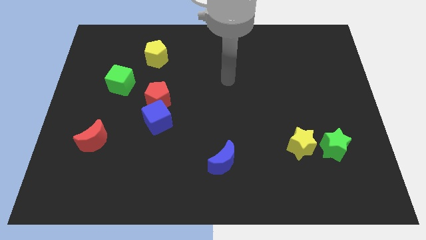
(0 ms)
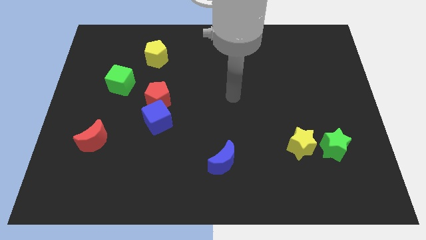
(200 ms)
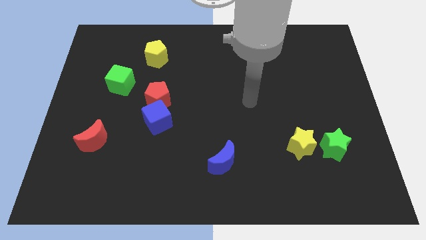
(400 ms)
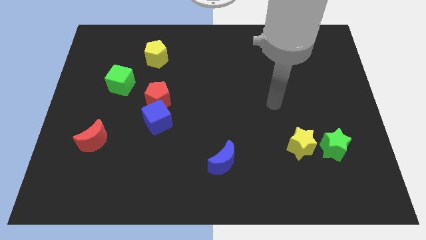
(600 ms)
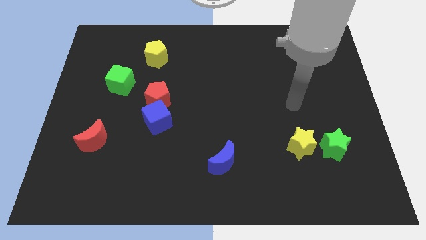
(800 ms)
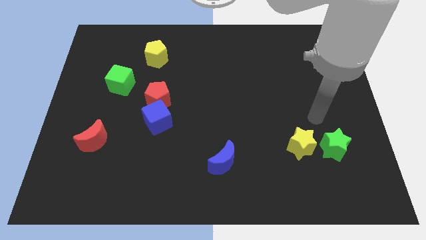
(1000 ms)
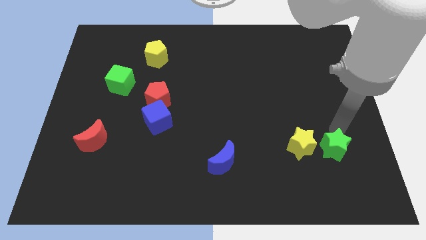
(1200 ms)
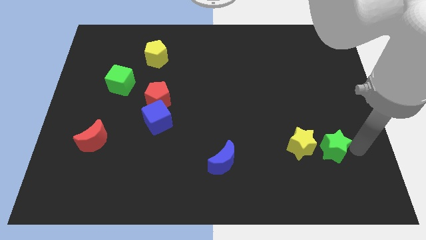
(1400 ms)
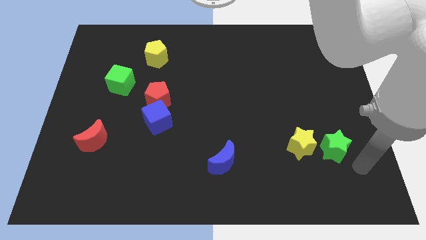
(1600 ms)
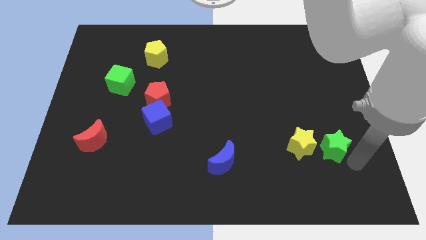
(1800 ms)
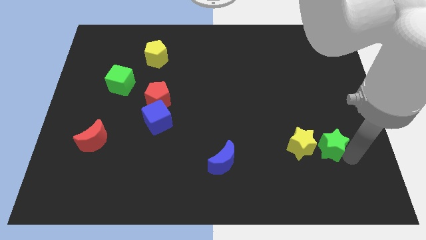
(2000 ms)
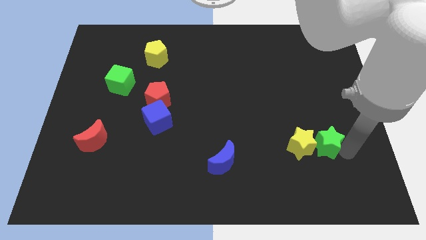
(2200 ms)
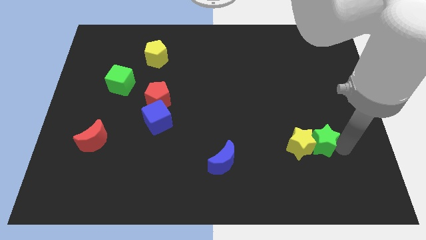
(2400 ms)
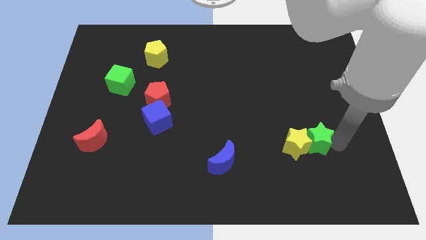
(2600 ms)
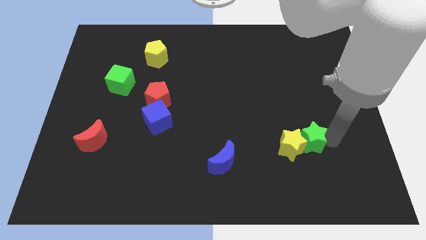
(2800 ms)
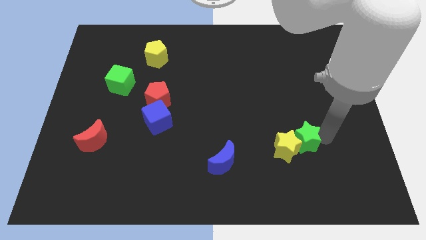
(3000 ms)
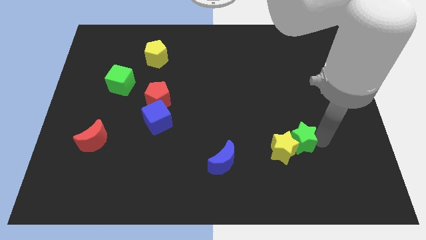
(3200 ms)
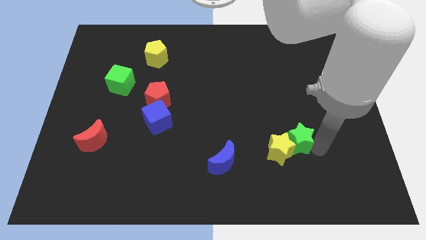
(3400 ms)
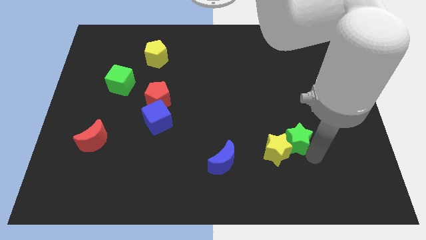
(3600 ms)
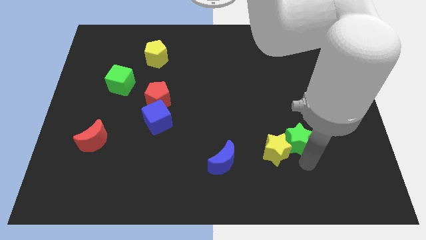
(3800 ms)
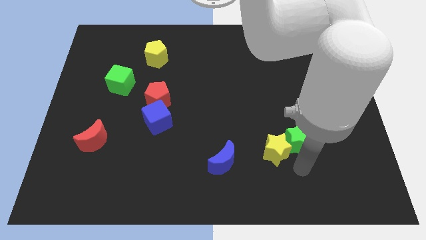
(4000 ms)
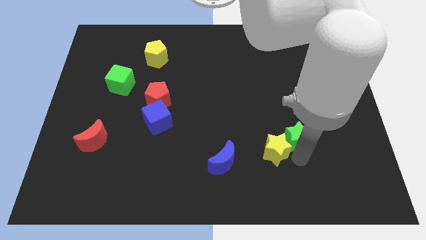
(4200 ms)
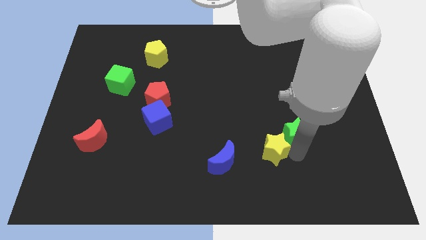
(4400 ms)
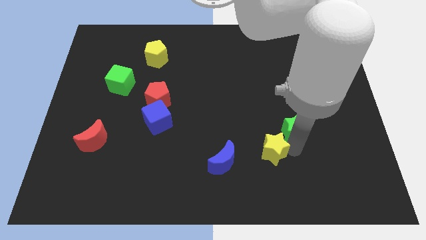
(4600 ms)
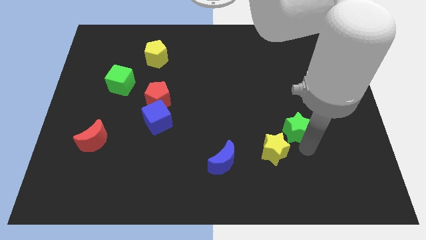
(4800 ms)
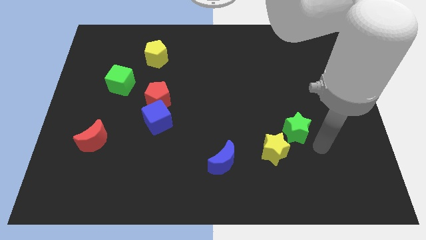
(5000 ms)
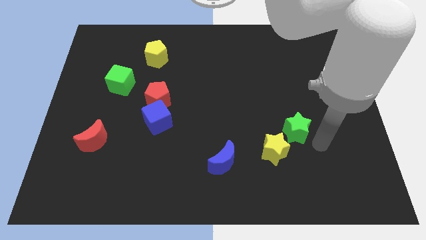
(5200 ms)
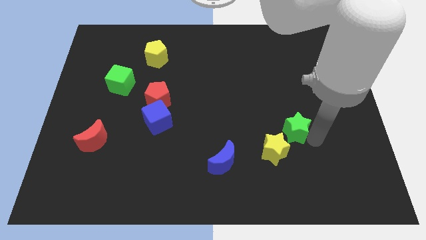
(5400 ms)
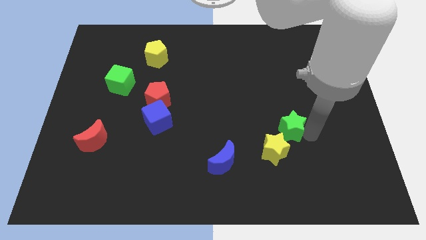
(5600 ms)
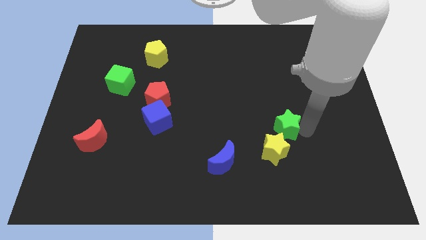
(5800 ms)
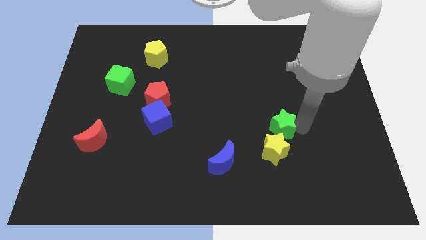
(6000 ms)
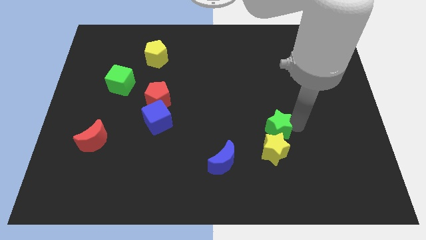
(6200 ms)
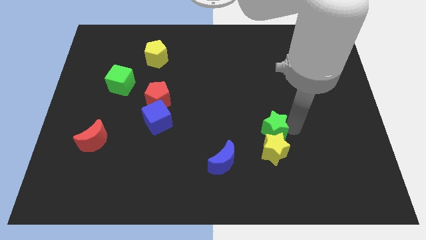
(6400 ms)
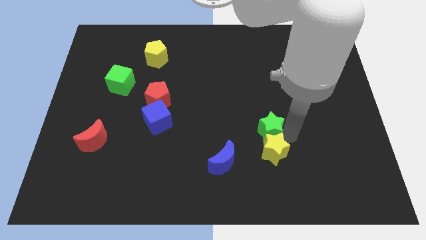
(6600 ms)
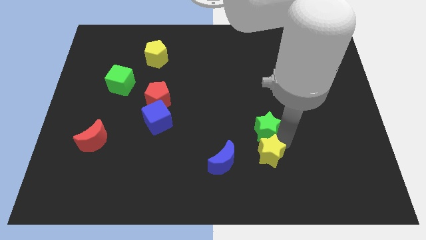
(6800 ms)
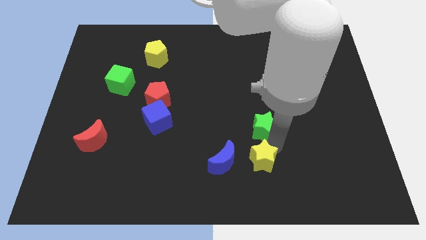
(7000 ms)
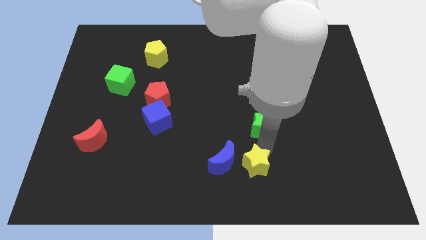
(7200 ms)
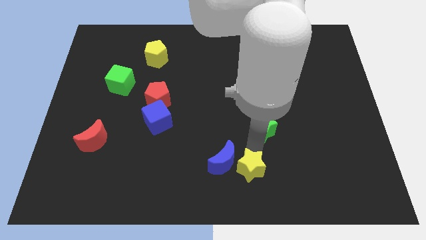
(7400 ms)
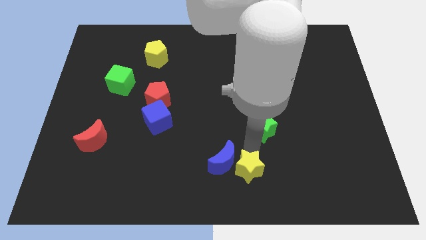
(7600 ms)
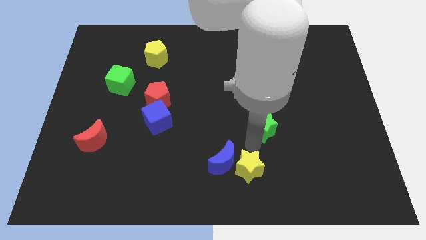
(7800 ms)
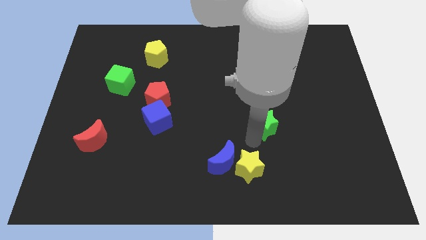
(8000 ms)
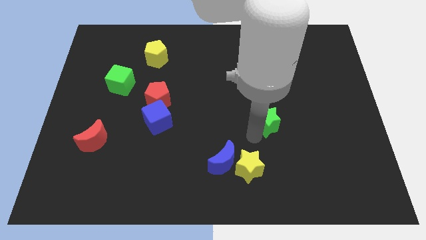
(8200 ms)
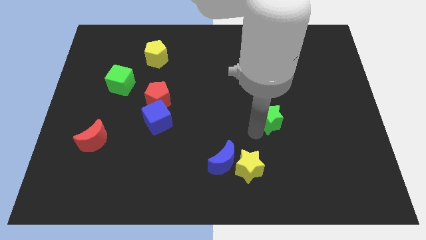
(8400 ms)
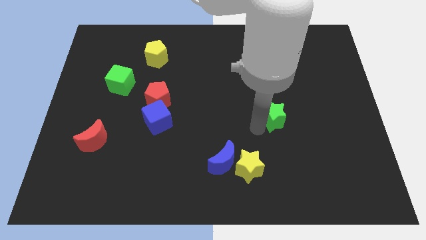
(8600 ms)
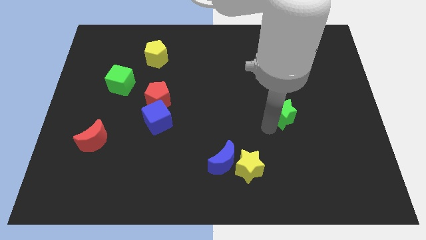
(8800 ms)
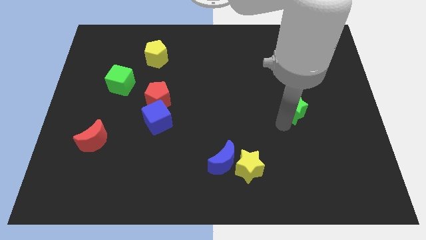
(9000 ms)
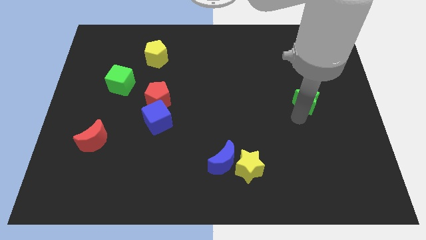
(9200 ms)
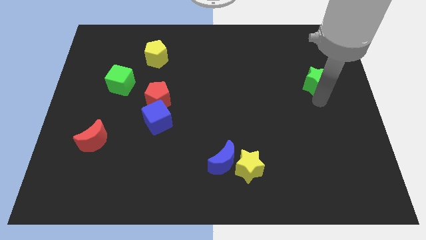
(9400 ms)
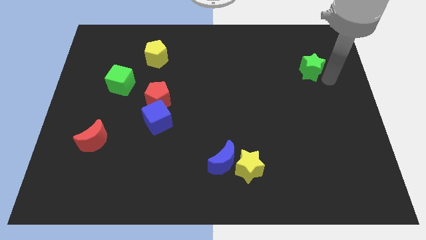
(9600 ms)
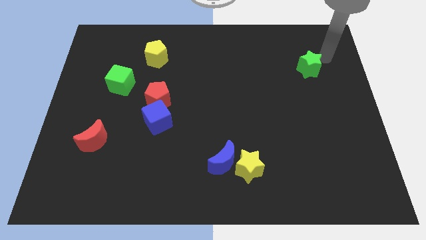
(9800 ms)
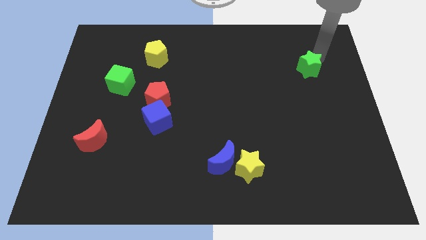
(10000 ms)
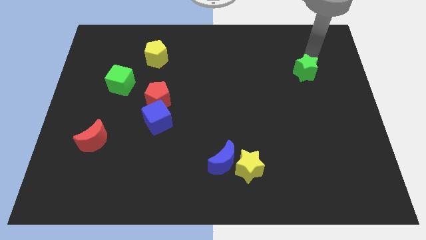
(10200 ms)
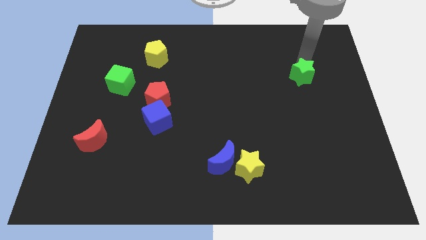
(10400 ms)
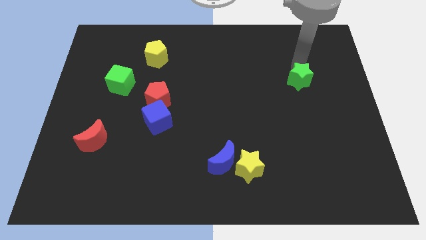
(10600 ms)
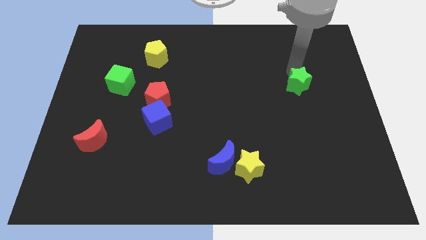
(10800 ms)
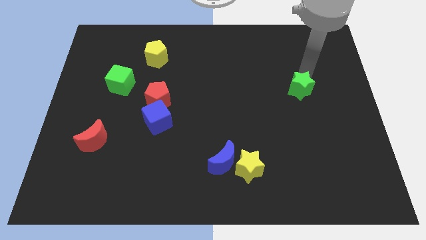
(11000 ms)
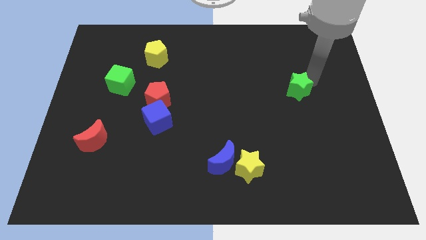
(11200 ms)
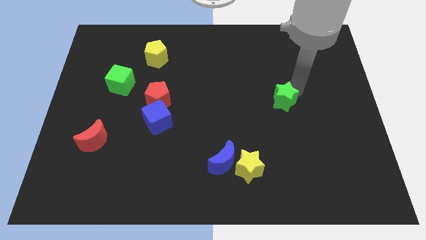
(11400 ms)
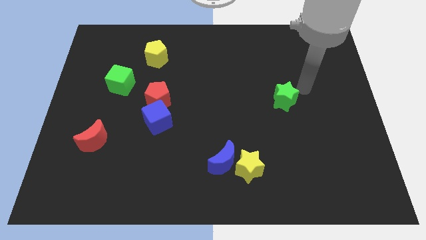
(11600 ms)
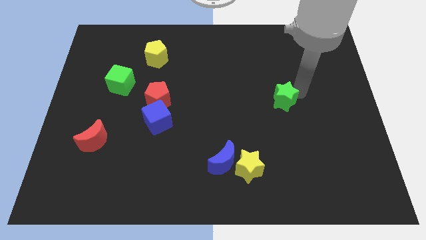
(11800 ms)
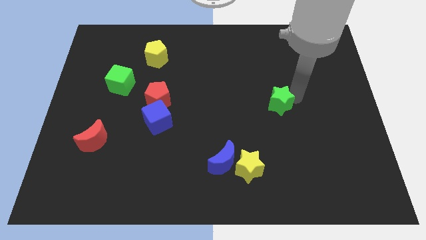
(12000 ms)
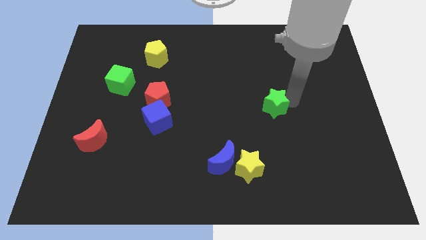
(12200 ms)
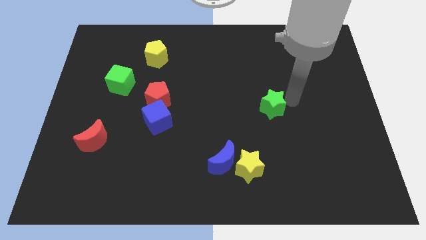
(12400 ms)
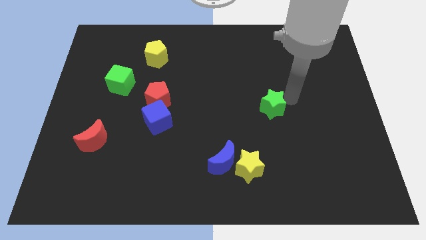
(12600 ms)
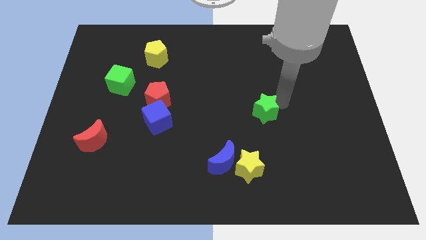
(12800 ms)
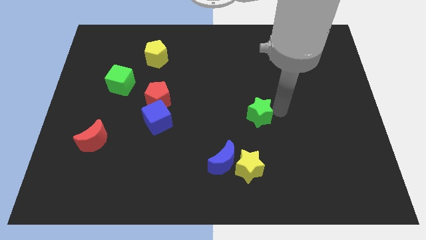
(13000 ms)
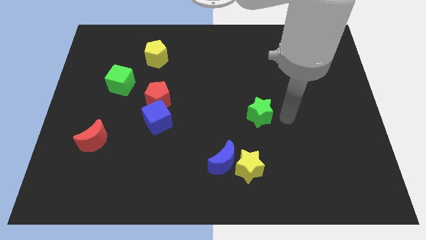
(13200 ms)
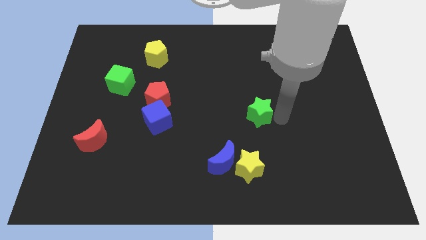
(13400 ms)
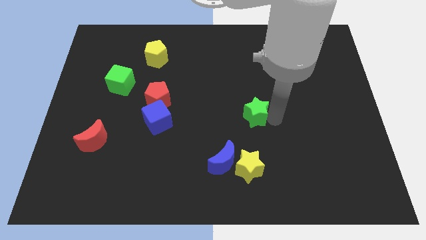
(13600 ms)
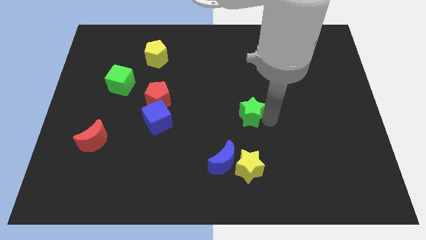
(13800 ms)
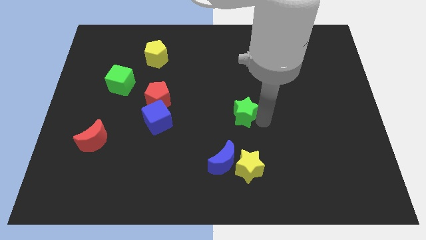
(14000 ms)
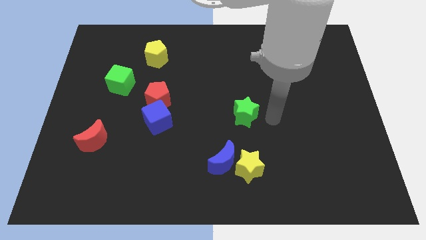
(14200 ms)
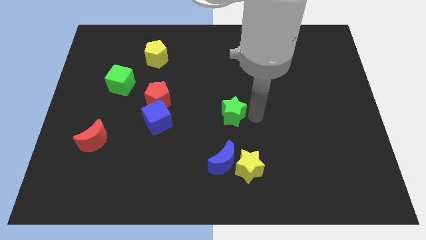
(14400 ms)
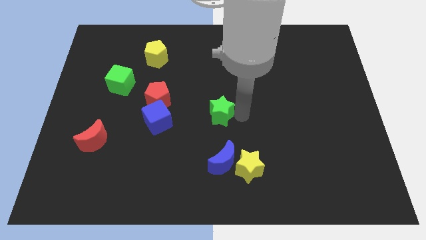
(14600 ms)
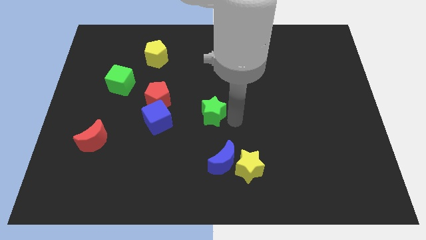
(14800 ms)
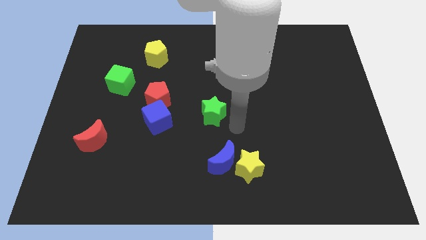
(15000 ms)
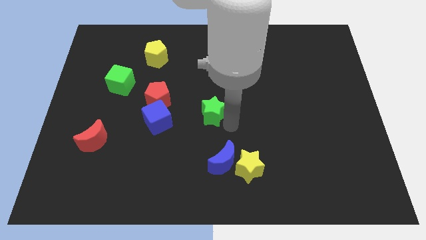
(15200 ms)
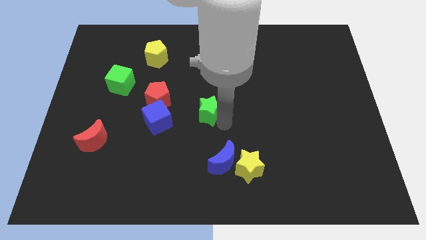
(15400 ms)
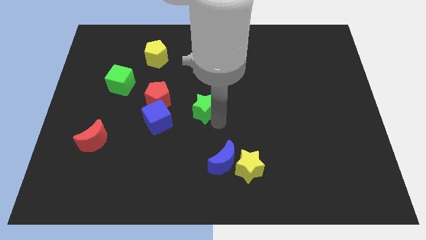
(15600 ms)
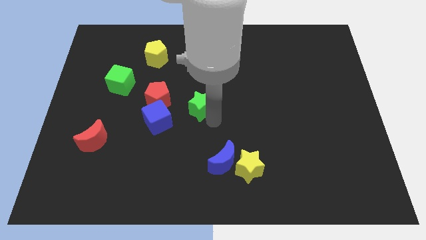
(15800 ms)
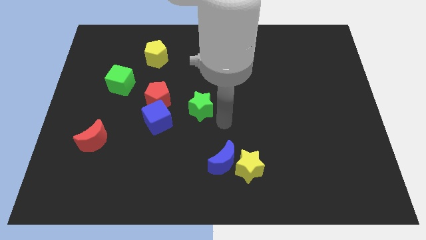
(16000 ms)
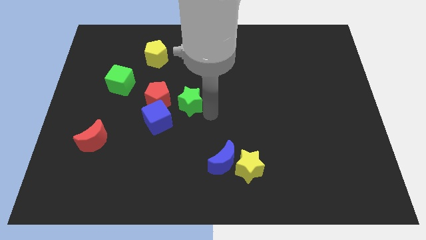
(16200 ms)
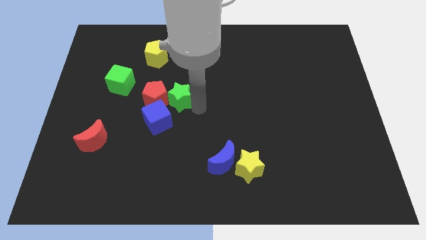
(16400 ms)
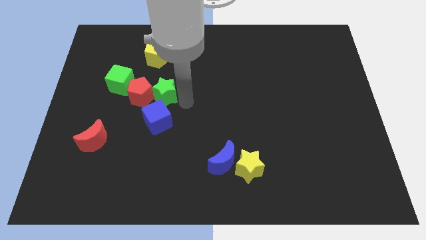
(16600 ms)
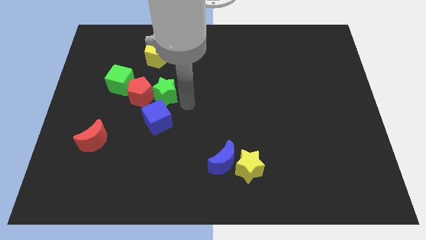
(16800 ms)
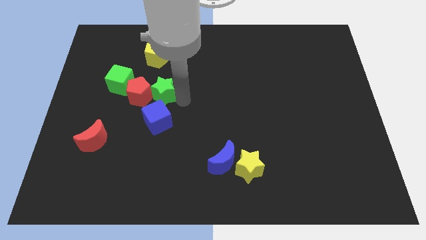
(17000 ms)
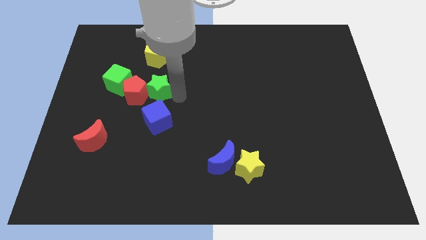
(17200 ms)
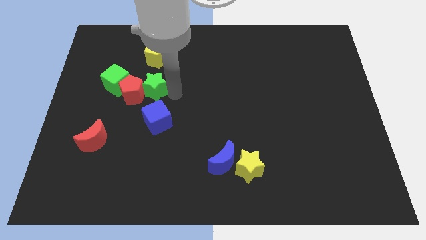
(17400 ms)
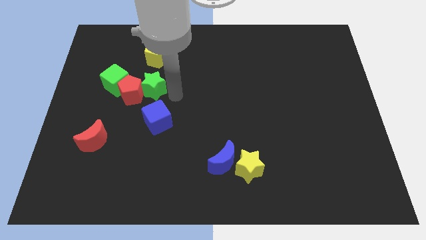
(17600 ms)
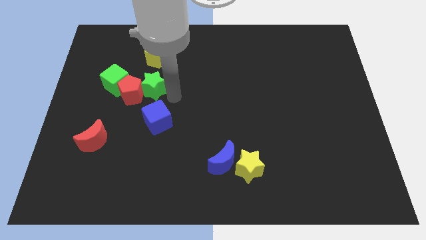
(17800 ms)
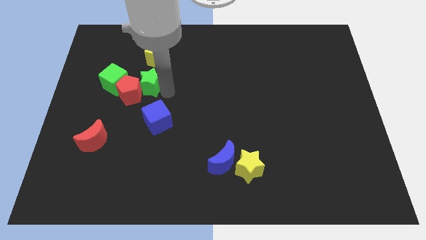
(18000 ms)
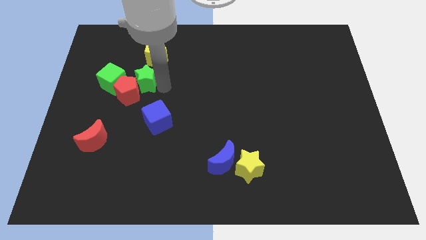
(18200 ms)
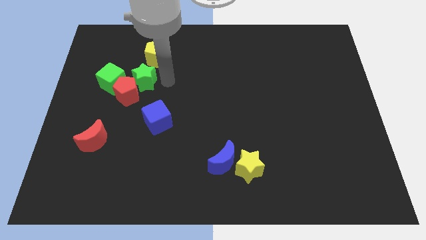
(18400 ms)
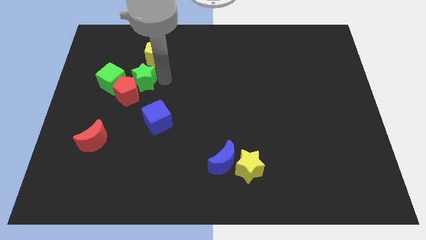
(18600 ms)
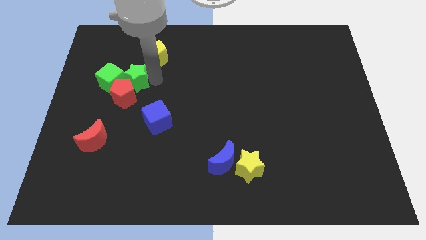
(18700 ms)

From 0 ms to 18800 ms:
put the green star to the green cube
